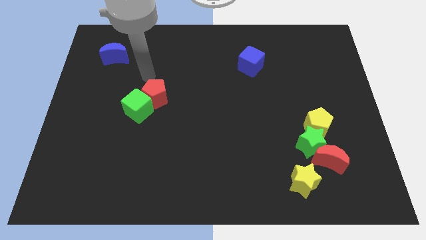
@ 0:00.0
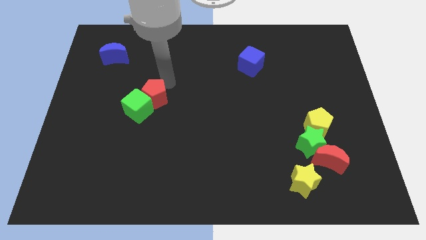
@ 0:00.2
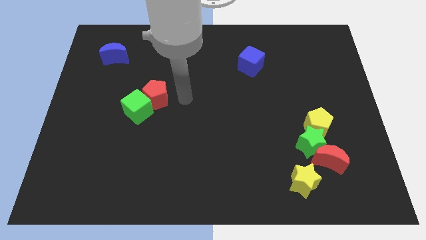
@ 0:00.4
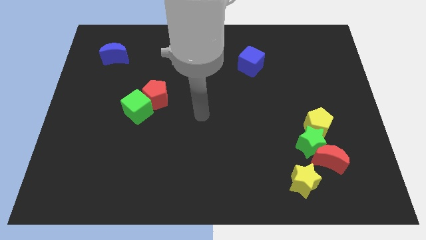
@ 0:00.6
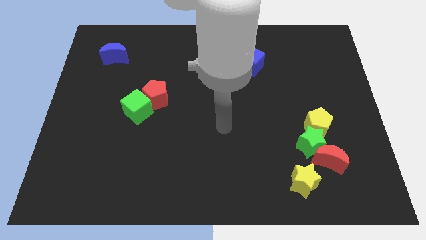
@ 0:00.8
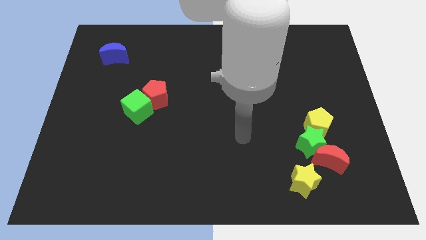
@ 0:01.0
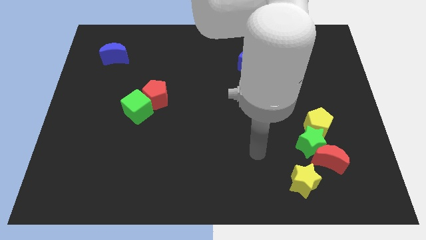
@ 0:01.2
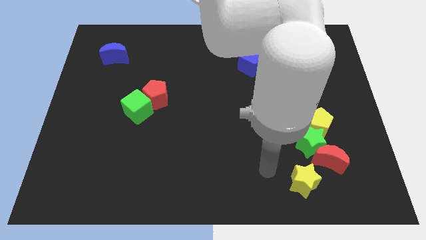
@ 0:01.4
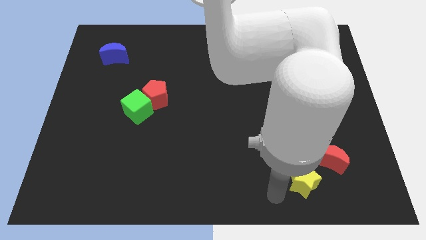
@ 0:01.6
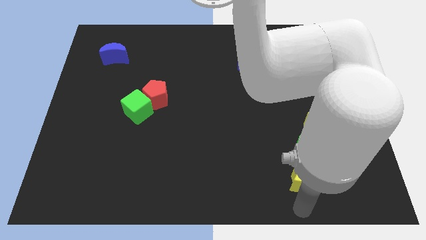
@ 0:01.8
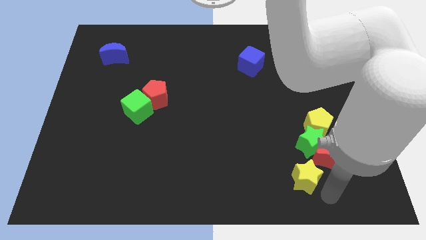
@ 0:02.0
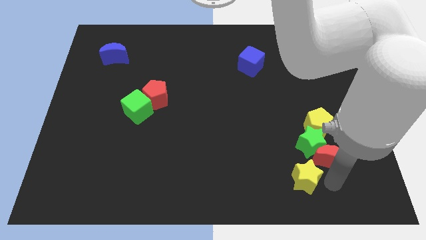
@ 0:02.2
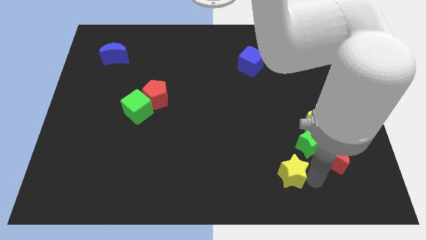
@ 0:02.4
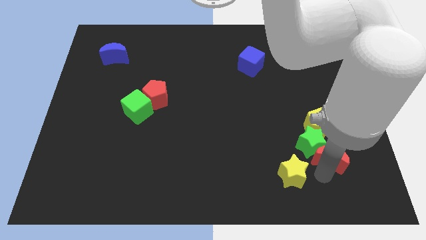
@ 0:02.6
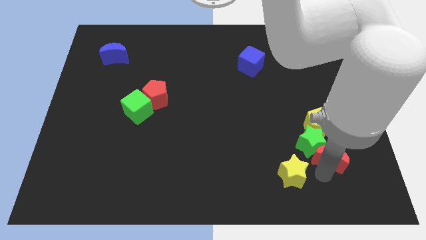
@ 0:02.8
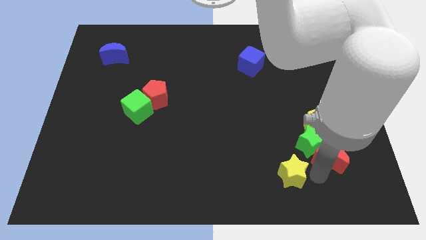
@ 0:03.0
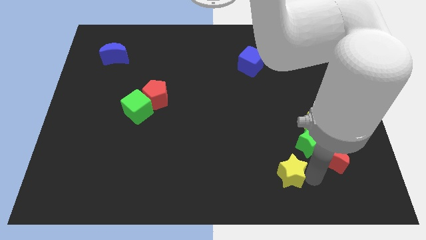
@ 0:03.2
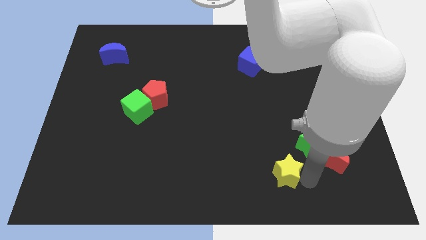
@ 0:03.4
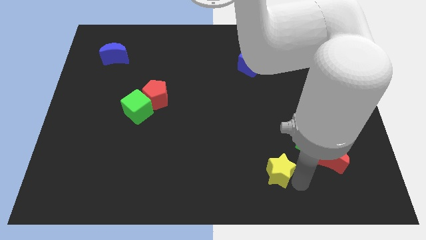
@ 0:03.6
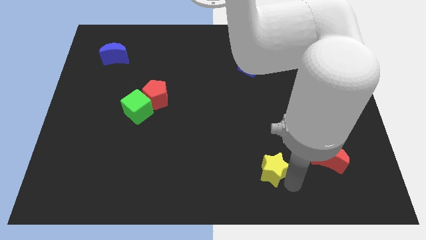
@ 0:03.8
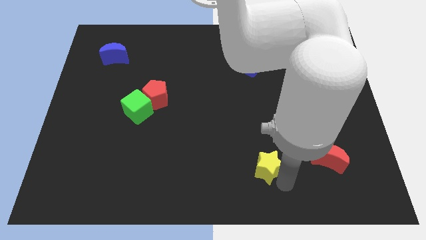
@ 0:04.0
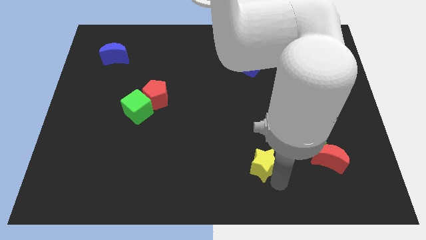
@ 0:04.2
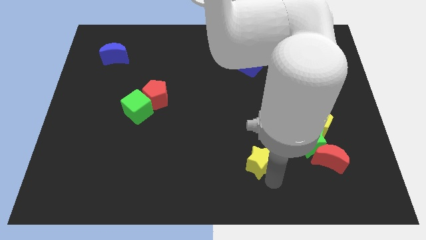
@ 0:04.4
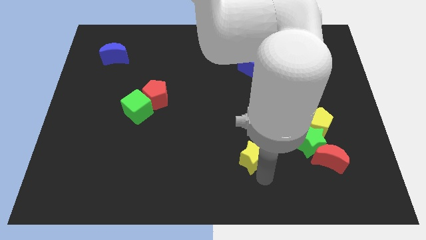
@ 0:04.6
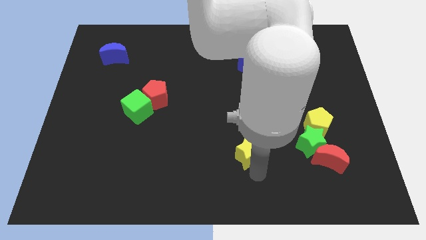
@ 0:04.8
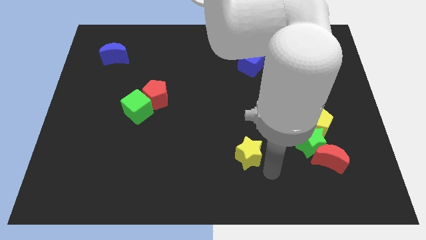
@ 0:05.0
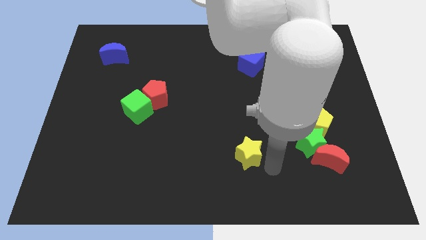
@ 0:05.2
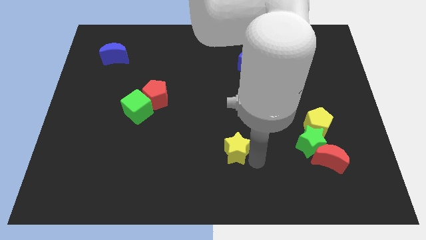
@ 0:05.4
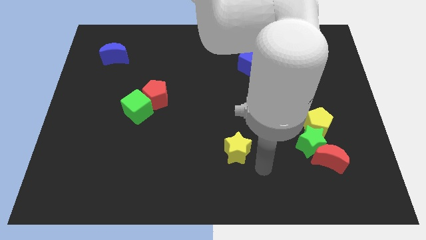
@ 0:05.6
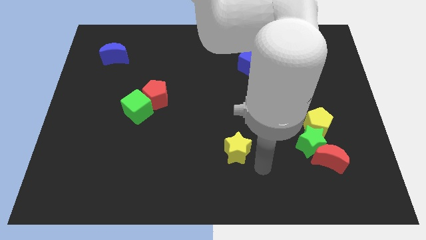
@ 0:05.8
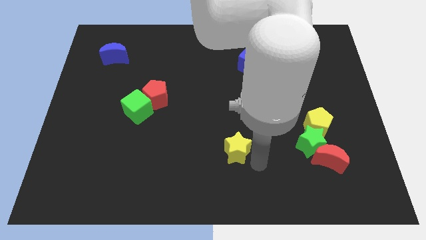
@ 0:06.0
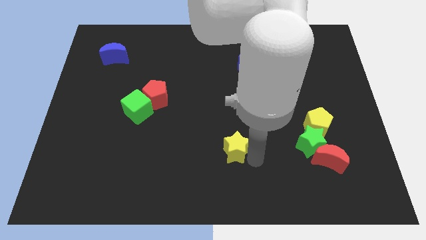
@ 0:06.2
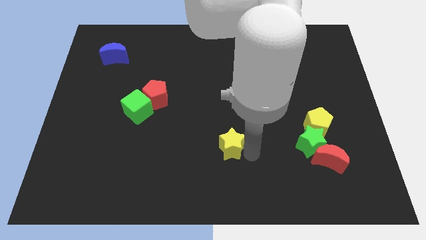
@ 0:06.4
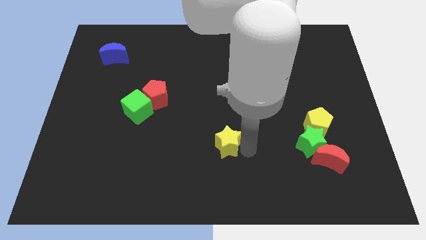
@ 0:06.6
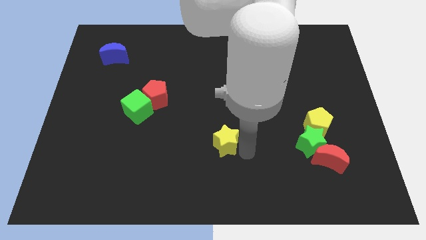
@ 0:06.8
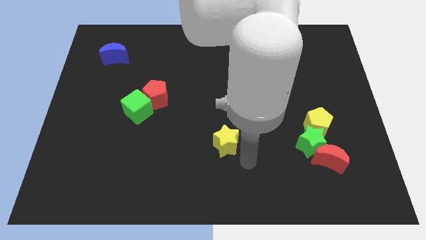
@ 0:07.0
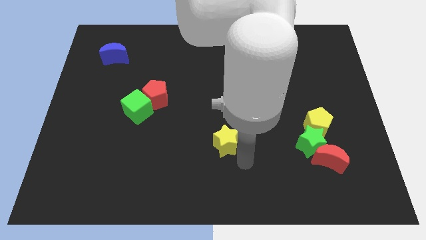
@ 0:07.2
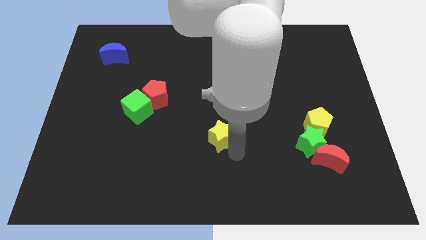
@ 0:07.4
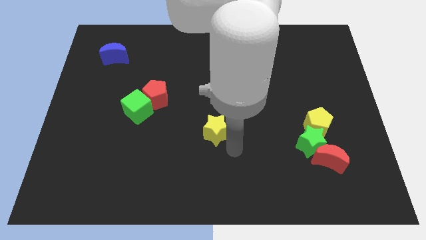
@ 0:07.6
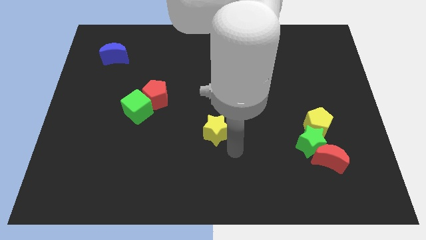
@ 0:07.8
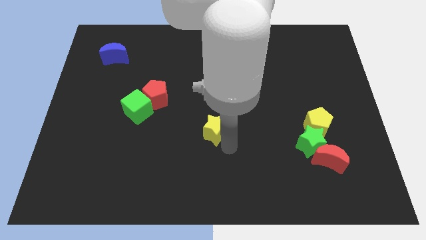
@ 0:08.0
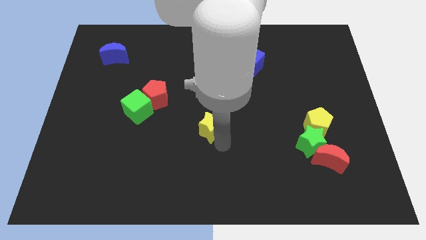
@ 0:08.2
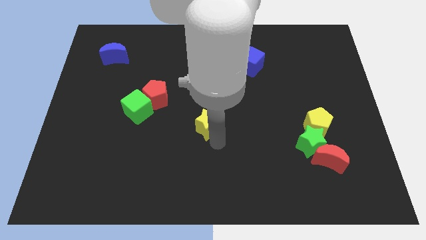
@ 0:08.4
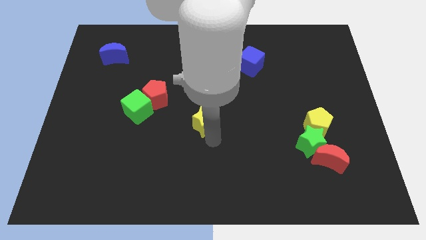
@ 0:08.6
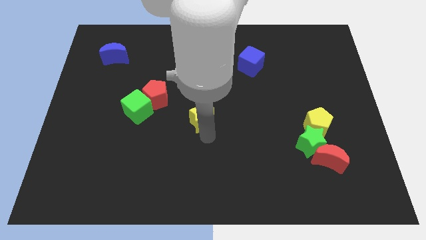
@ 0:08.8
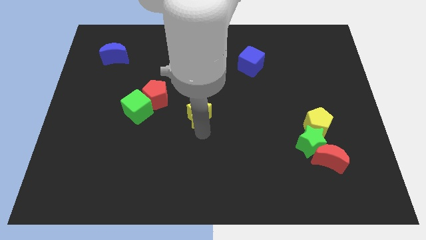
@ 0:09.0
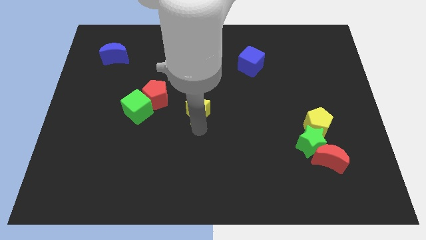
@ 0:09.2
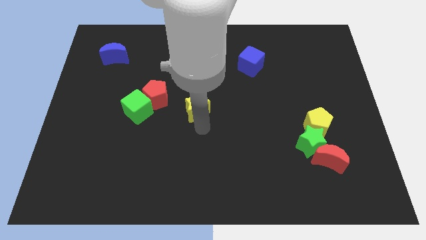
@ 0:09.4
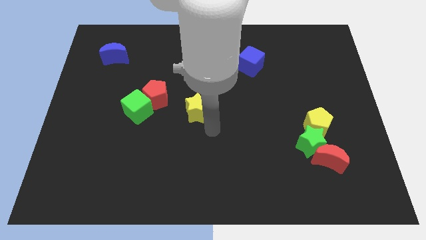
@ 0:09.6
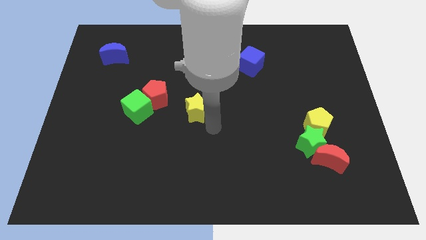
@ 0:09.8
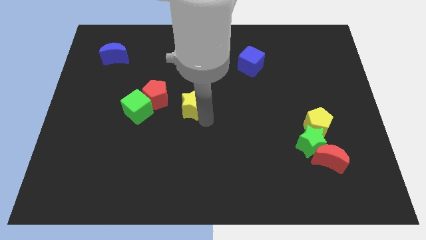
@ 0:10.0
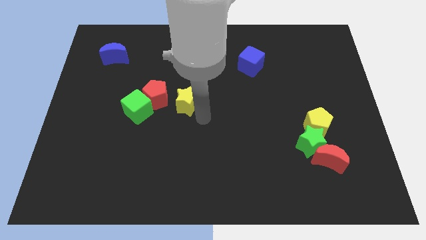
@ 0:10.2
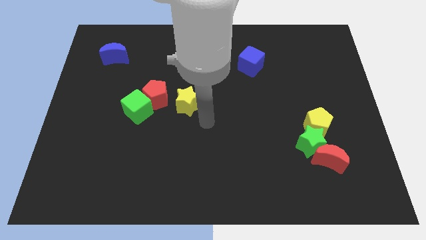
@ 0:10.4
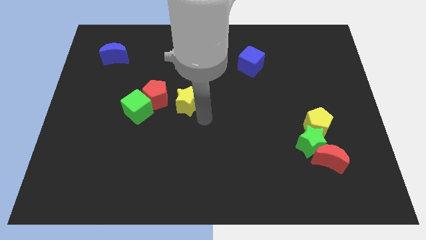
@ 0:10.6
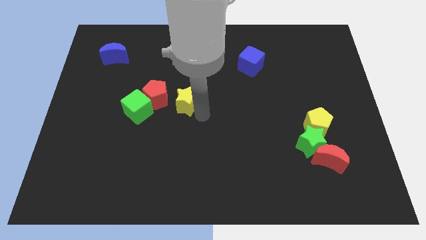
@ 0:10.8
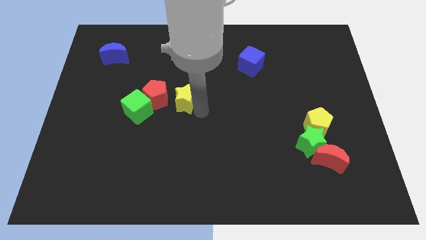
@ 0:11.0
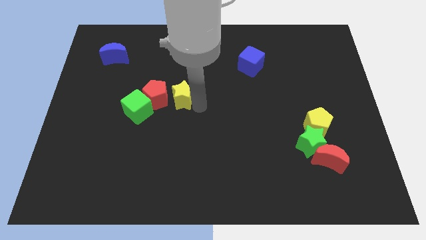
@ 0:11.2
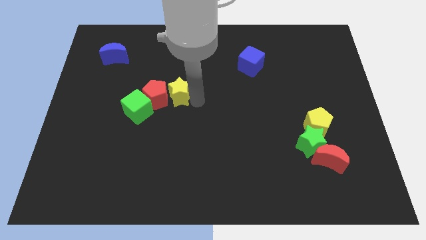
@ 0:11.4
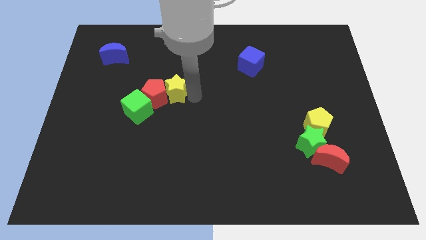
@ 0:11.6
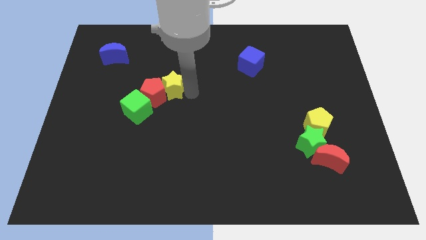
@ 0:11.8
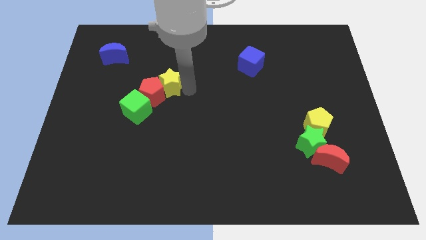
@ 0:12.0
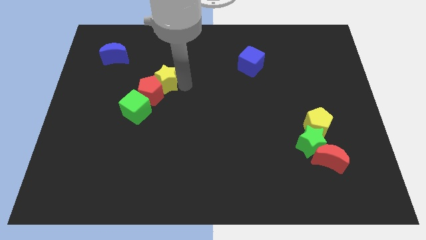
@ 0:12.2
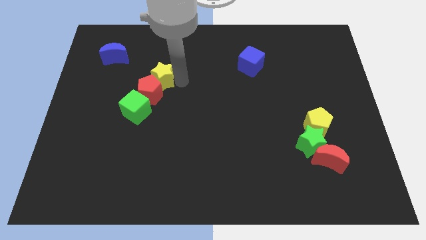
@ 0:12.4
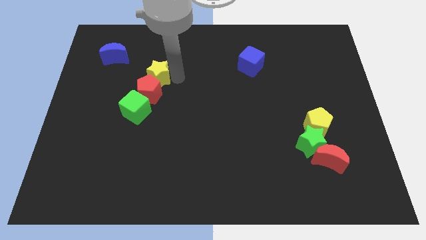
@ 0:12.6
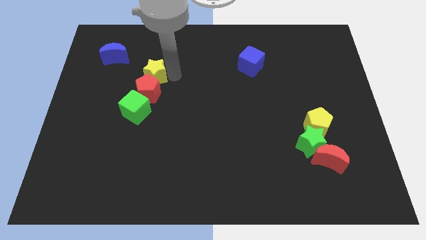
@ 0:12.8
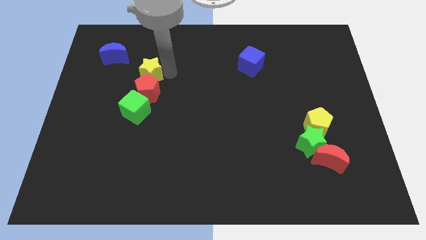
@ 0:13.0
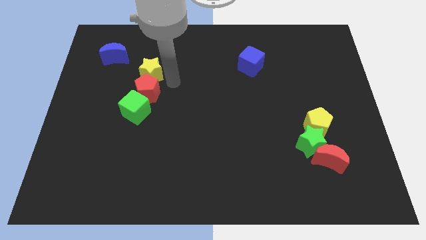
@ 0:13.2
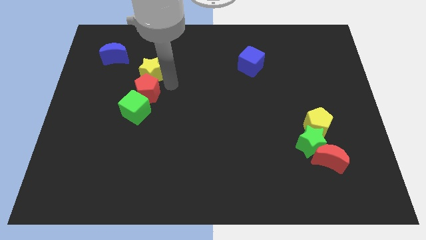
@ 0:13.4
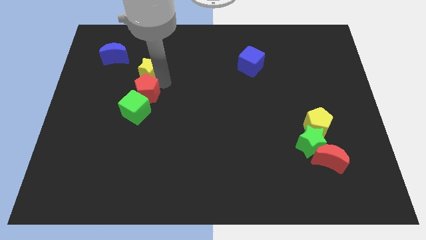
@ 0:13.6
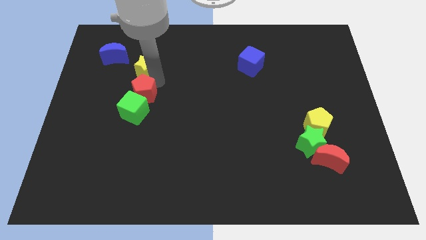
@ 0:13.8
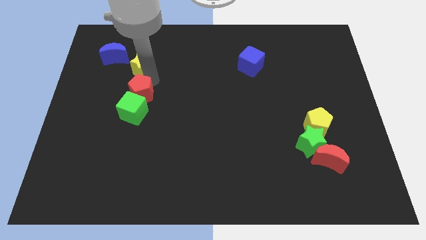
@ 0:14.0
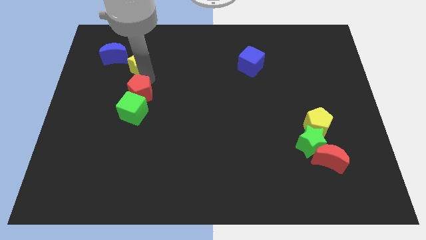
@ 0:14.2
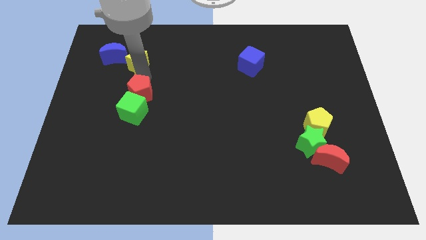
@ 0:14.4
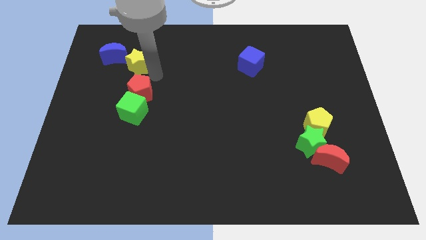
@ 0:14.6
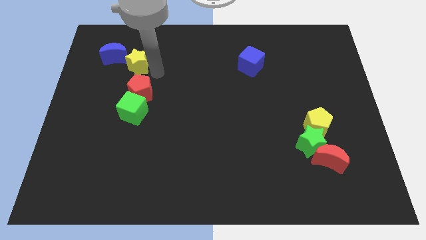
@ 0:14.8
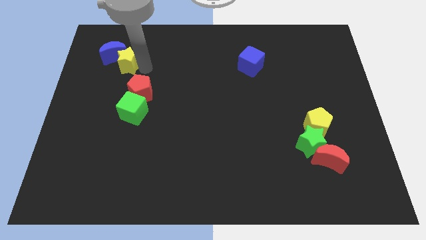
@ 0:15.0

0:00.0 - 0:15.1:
put the yellow star next to the blue moon
